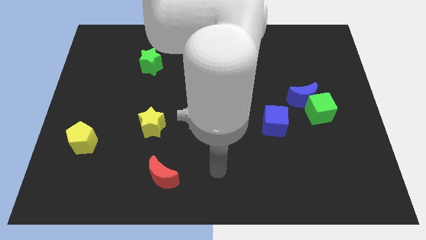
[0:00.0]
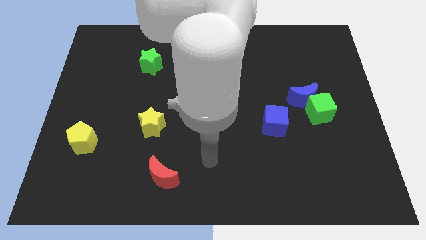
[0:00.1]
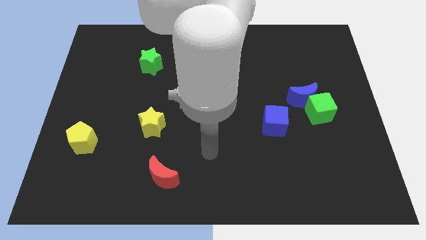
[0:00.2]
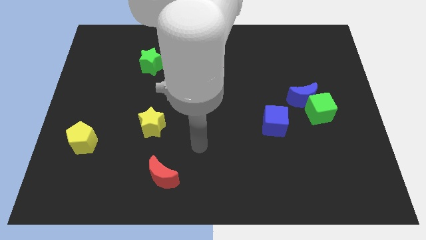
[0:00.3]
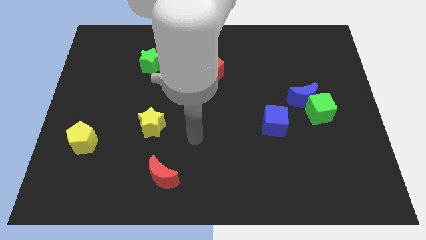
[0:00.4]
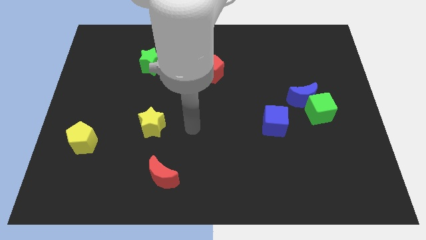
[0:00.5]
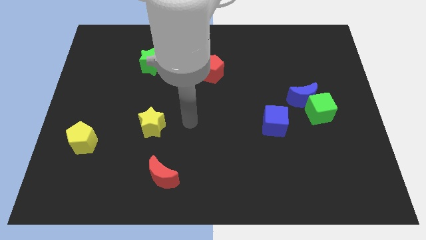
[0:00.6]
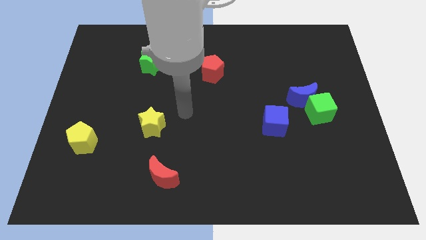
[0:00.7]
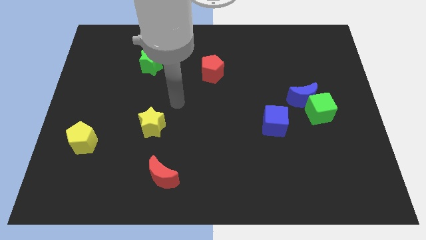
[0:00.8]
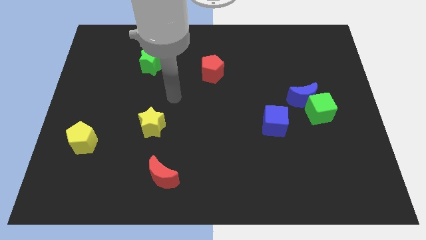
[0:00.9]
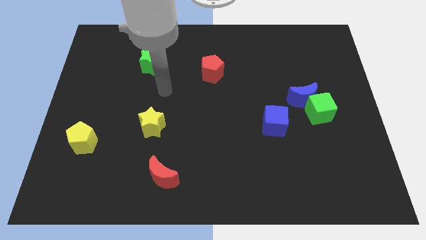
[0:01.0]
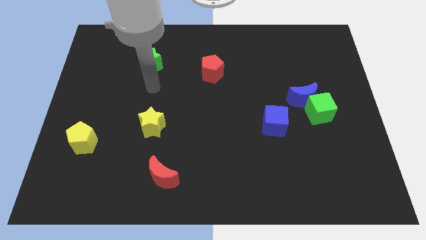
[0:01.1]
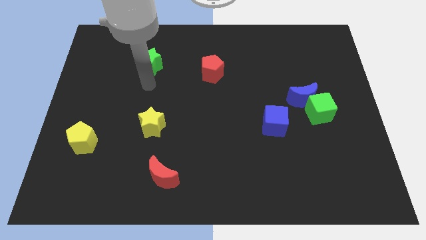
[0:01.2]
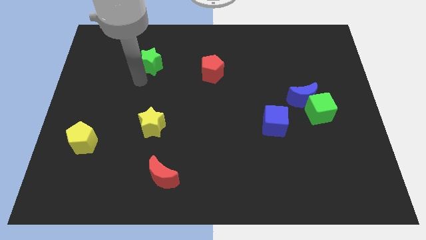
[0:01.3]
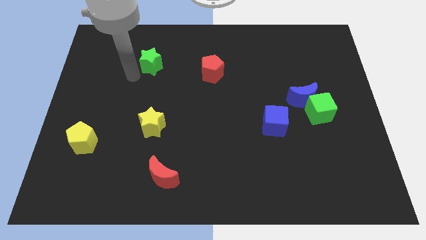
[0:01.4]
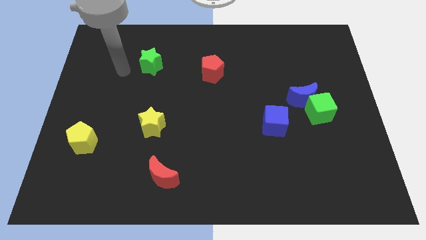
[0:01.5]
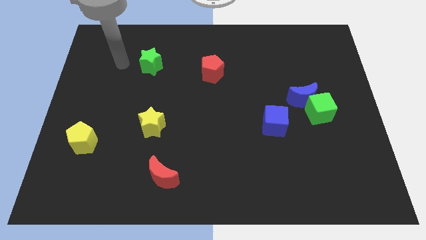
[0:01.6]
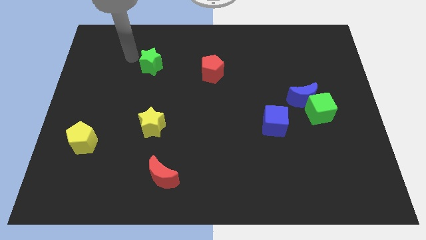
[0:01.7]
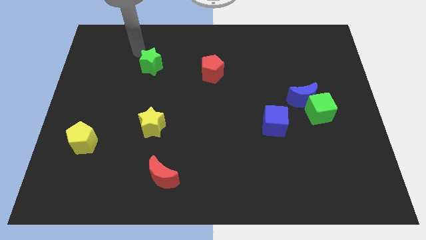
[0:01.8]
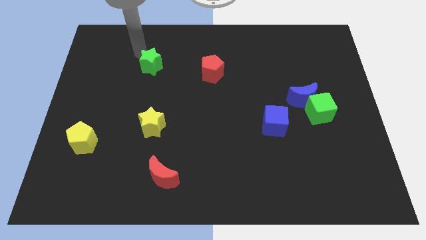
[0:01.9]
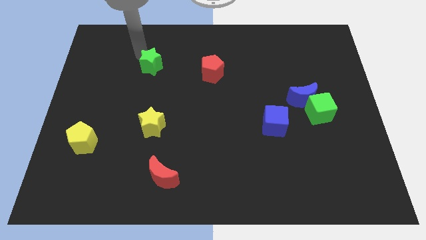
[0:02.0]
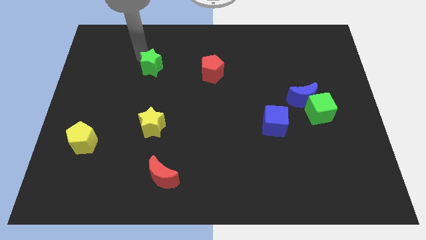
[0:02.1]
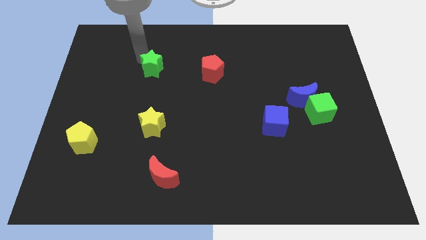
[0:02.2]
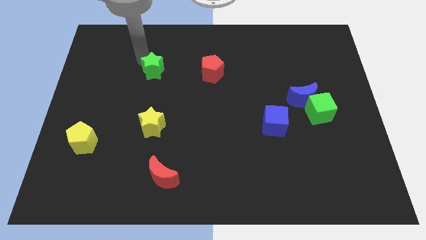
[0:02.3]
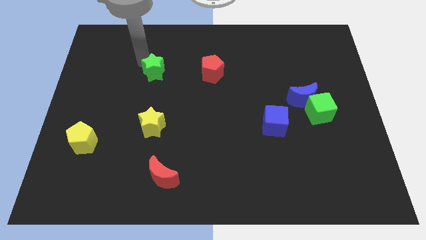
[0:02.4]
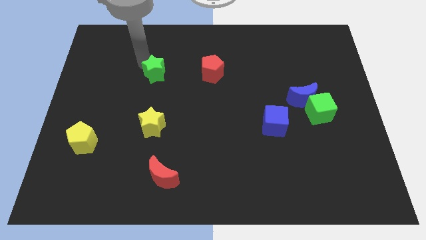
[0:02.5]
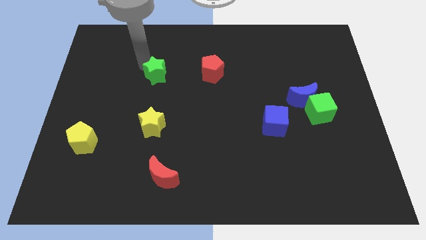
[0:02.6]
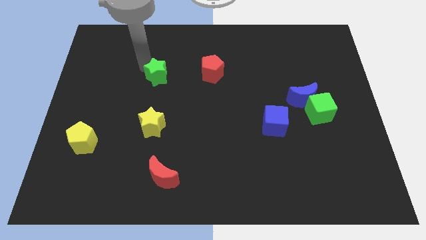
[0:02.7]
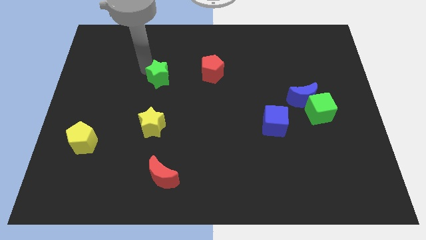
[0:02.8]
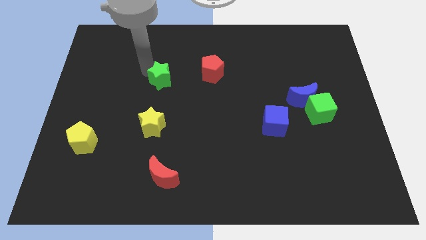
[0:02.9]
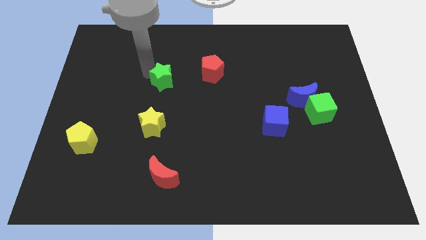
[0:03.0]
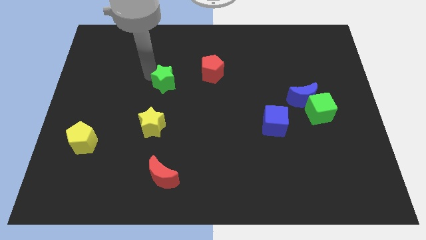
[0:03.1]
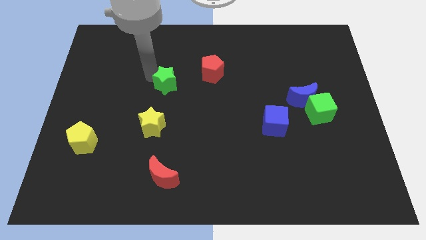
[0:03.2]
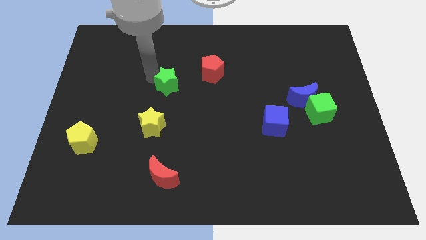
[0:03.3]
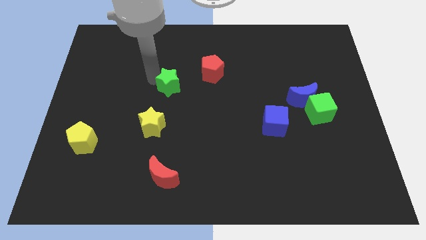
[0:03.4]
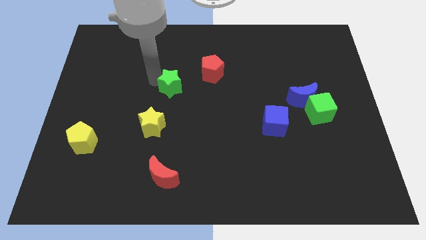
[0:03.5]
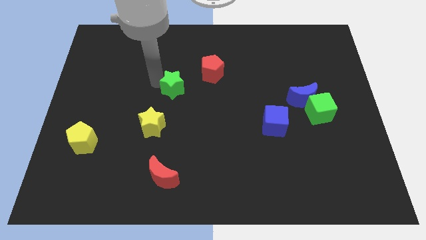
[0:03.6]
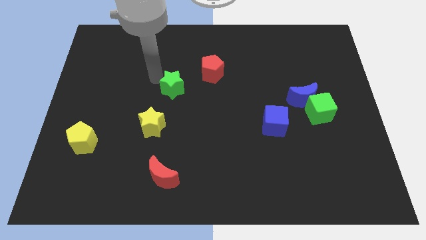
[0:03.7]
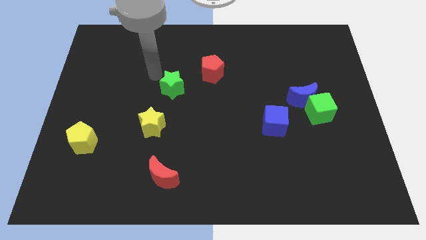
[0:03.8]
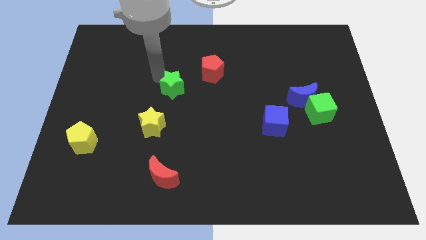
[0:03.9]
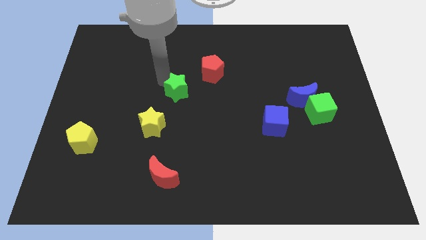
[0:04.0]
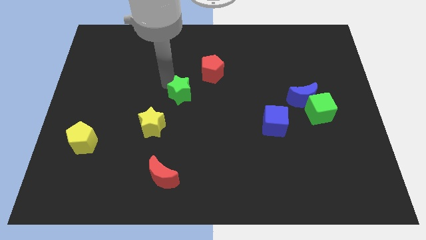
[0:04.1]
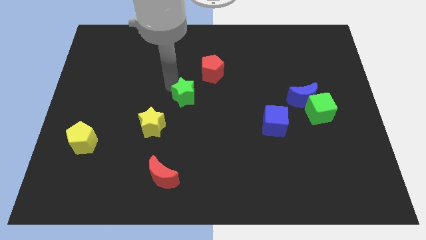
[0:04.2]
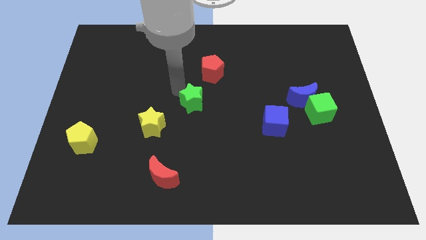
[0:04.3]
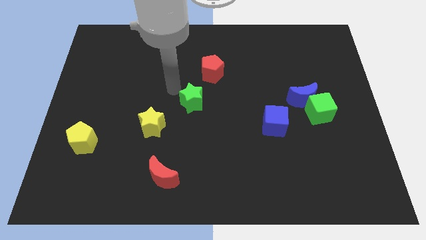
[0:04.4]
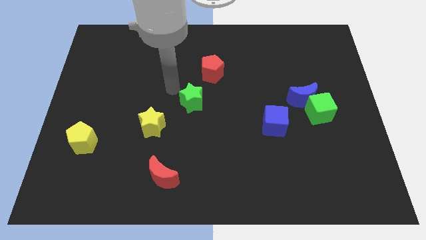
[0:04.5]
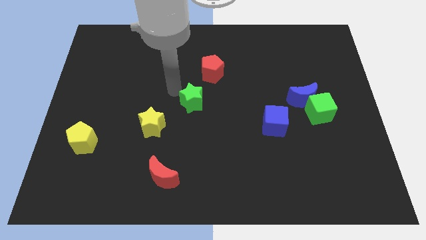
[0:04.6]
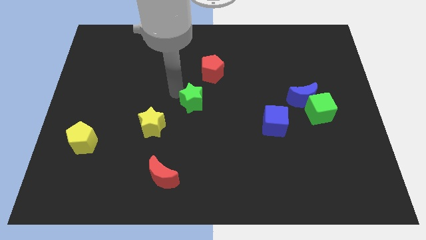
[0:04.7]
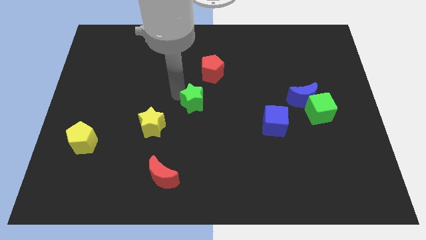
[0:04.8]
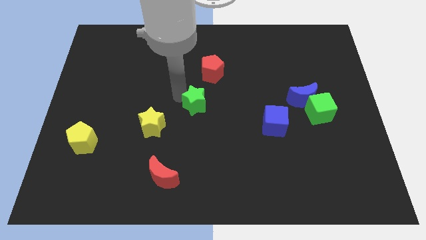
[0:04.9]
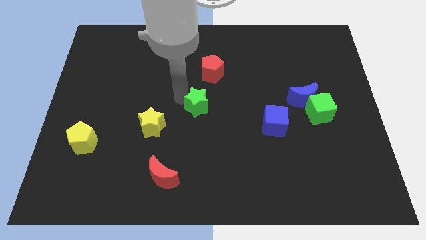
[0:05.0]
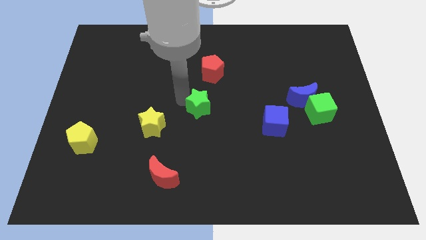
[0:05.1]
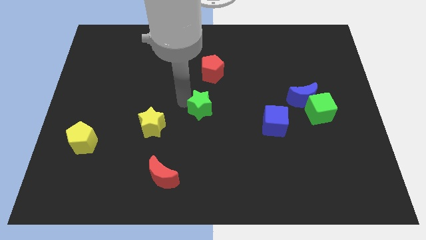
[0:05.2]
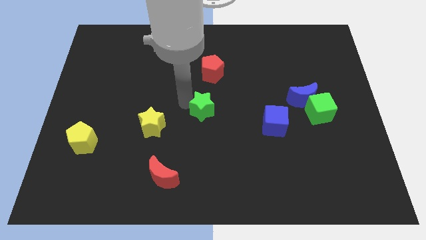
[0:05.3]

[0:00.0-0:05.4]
move the green star down and right diagonally

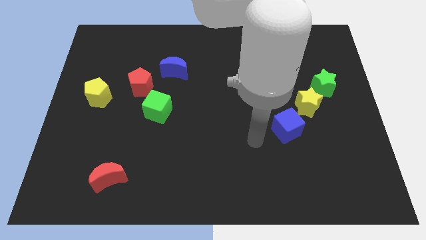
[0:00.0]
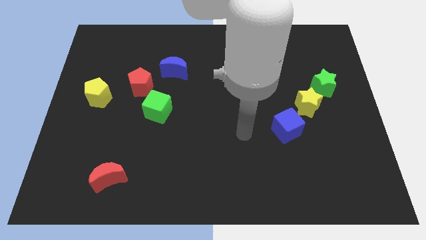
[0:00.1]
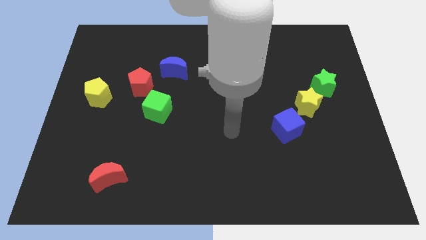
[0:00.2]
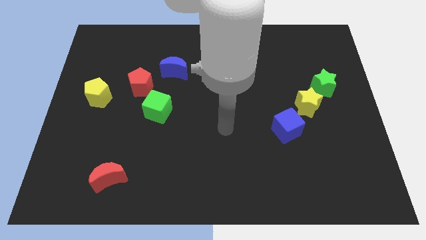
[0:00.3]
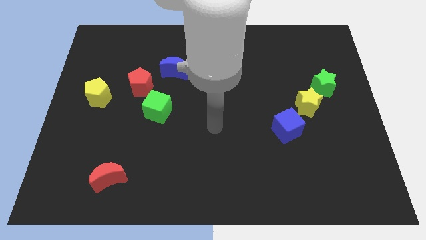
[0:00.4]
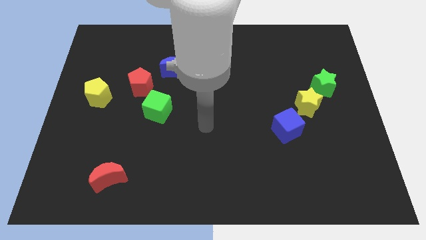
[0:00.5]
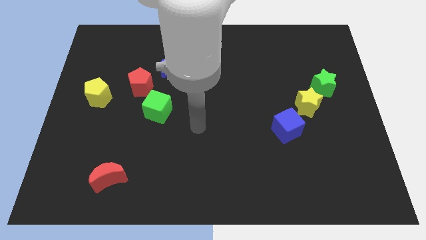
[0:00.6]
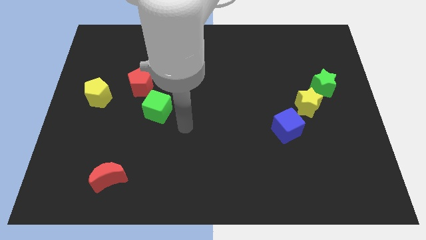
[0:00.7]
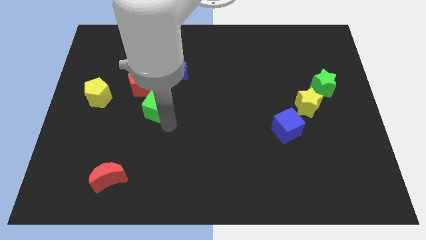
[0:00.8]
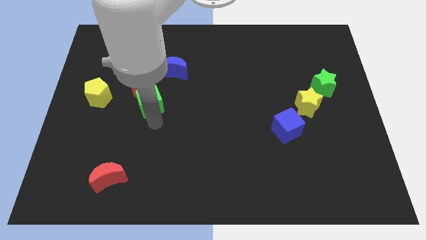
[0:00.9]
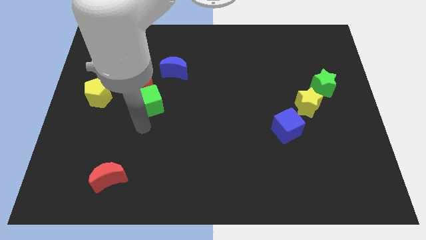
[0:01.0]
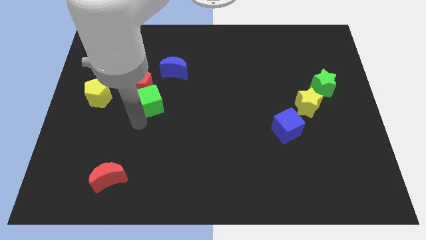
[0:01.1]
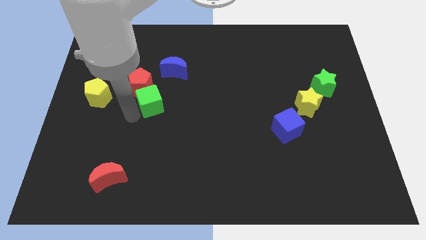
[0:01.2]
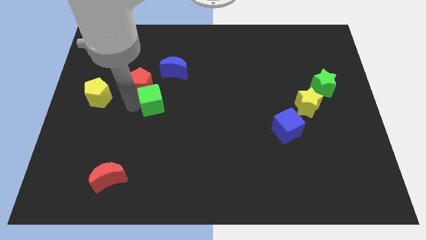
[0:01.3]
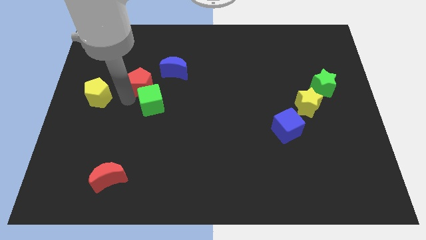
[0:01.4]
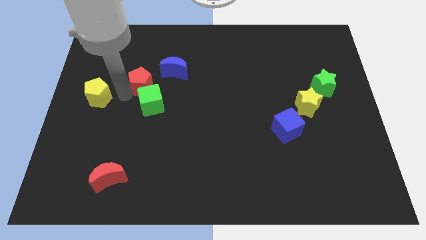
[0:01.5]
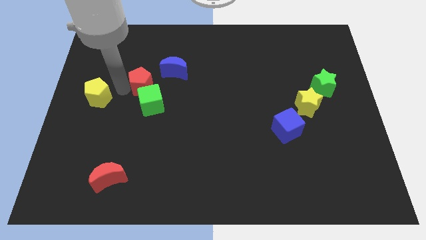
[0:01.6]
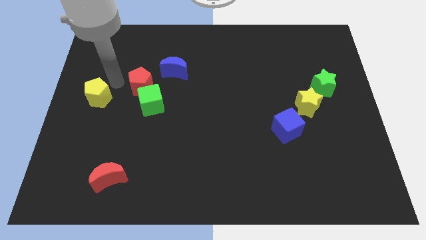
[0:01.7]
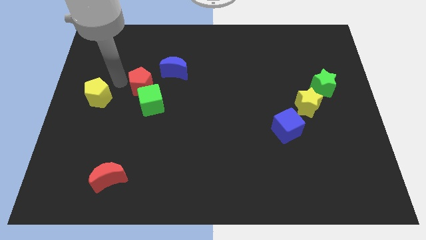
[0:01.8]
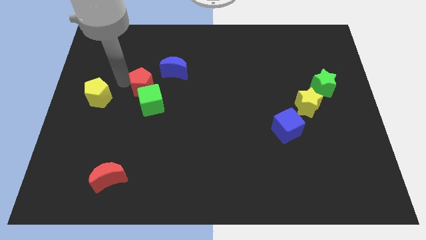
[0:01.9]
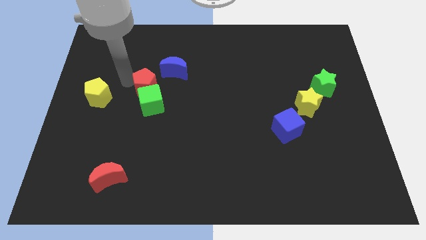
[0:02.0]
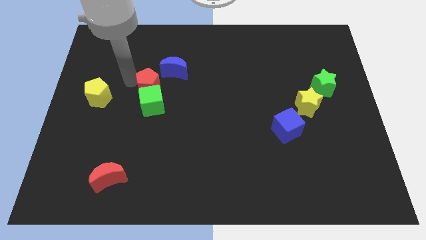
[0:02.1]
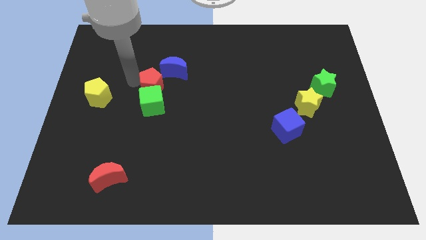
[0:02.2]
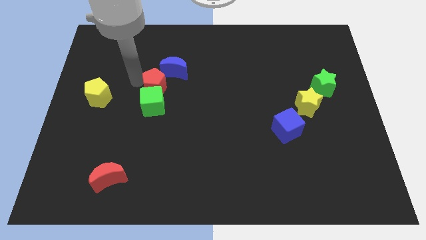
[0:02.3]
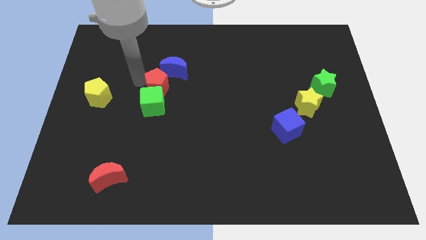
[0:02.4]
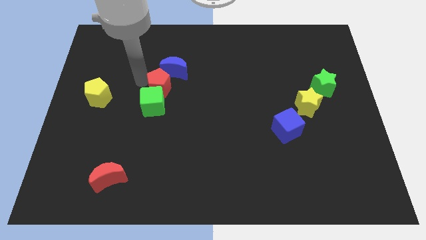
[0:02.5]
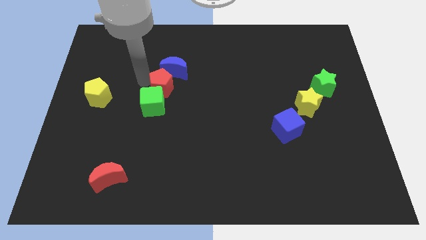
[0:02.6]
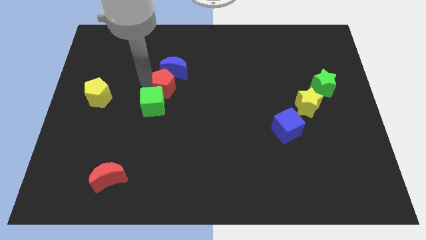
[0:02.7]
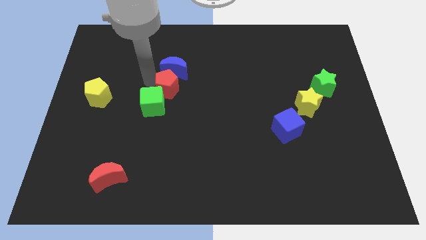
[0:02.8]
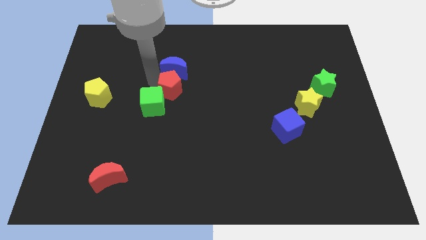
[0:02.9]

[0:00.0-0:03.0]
move the red pentagon right slightly
